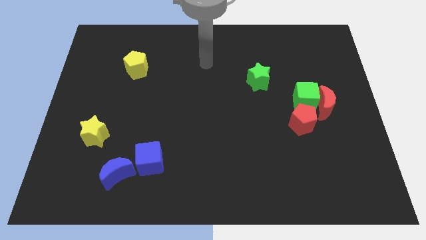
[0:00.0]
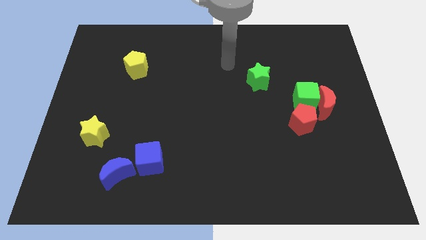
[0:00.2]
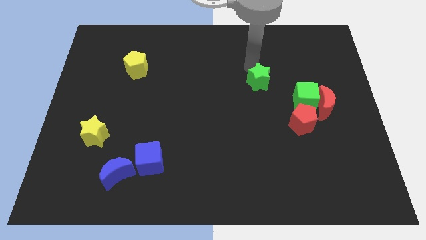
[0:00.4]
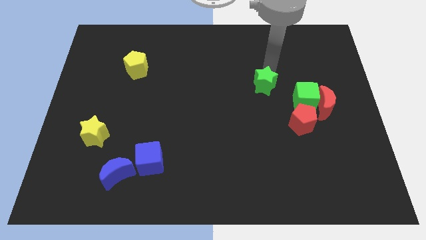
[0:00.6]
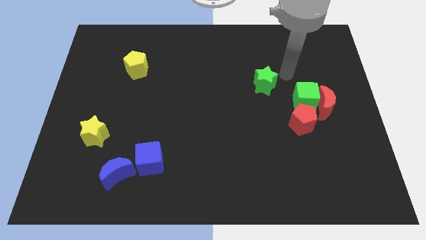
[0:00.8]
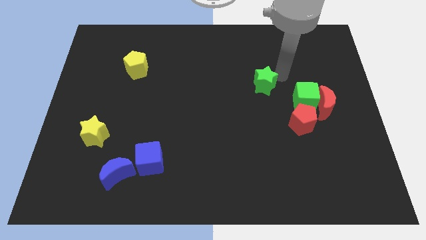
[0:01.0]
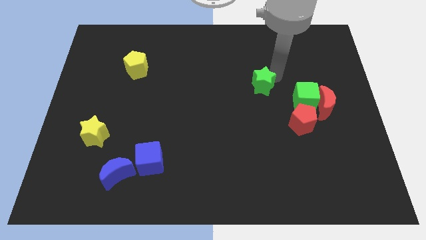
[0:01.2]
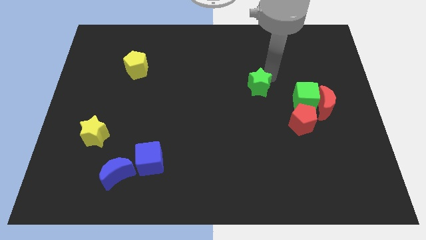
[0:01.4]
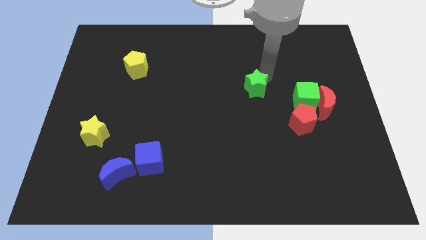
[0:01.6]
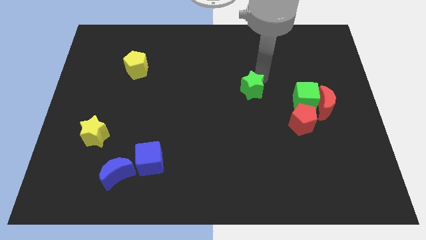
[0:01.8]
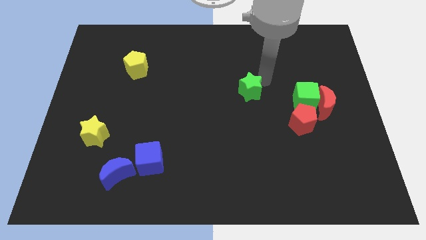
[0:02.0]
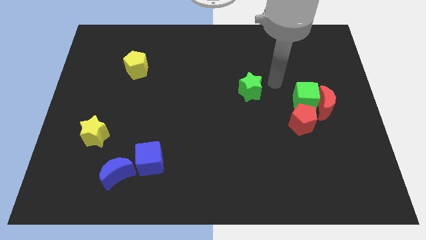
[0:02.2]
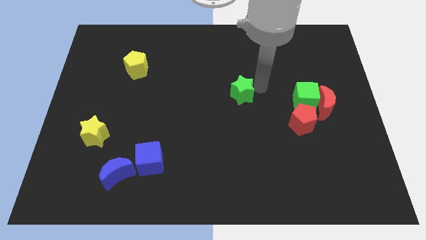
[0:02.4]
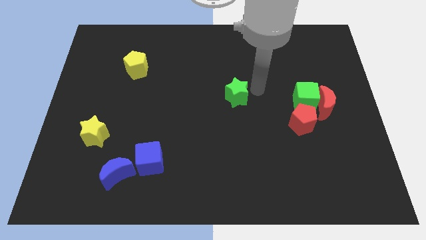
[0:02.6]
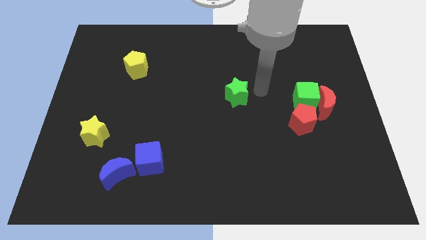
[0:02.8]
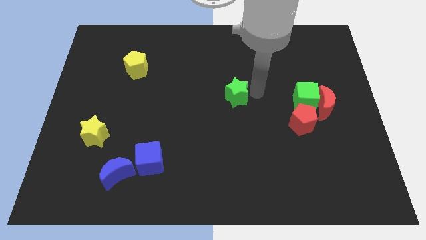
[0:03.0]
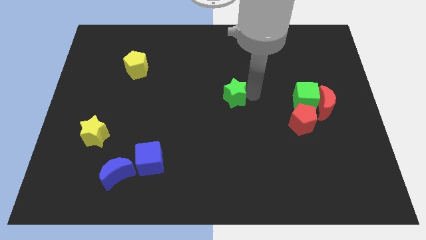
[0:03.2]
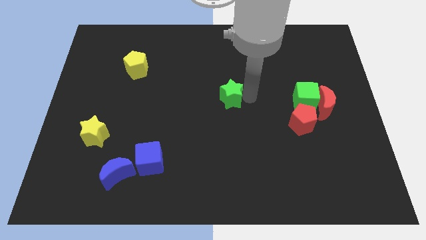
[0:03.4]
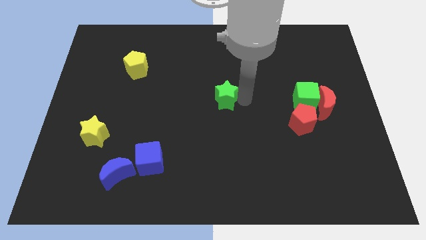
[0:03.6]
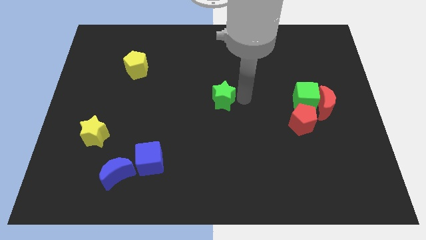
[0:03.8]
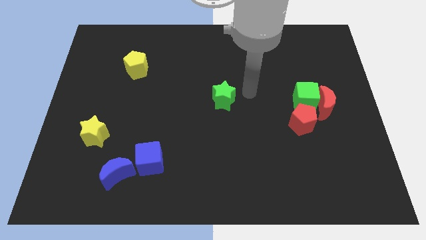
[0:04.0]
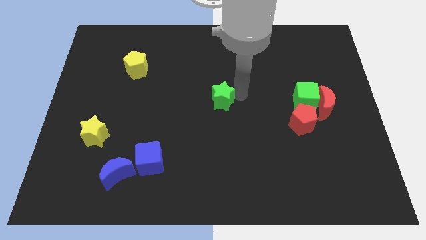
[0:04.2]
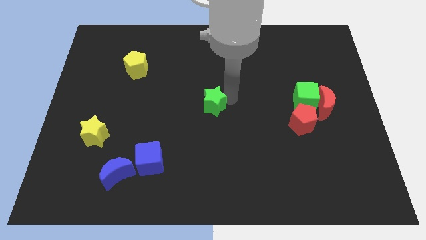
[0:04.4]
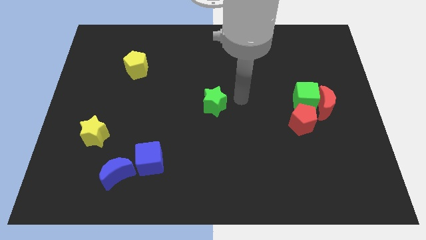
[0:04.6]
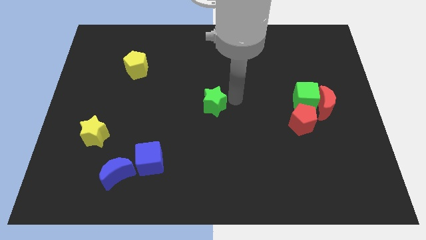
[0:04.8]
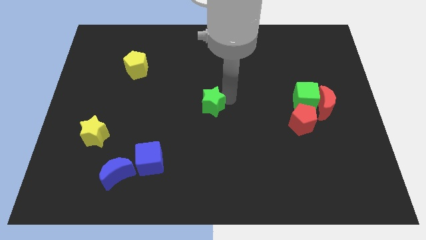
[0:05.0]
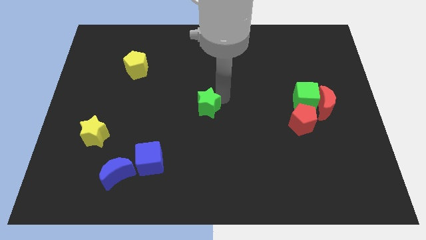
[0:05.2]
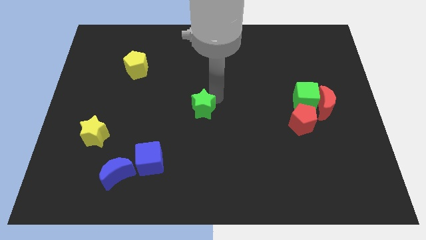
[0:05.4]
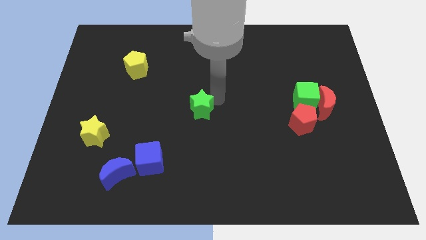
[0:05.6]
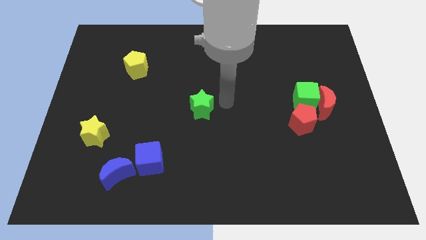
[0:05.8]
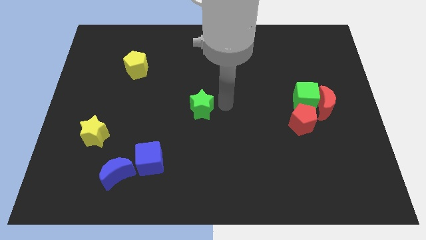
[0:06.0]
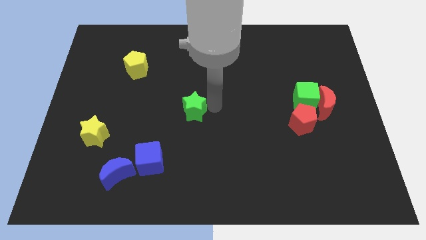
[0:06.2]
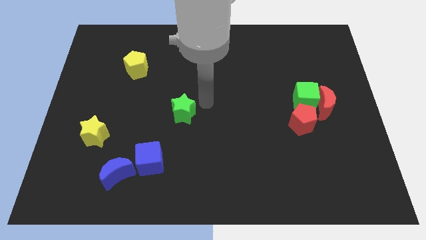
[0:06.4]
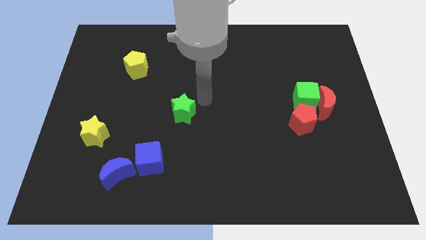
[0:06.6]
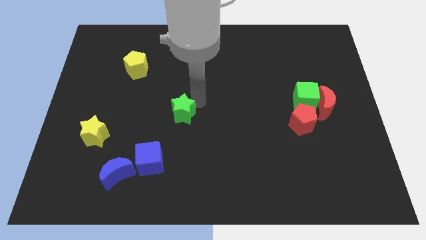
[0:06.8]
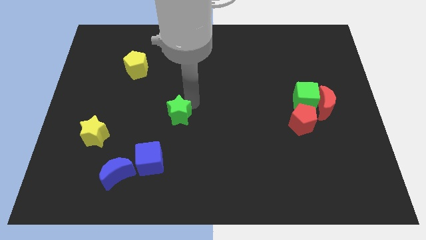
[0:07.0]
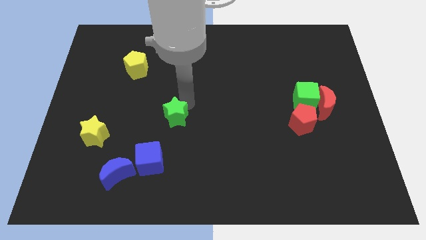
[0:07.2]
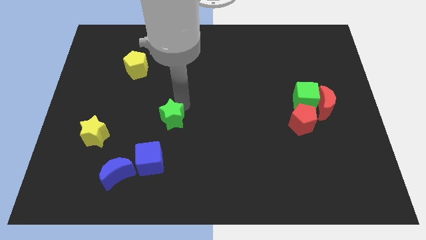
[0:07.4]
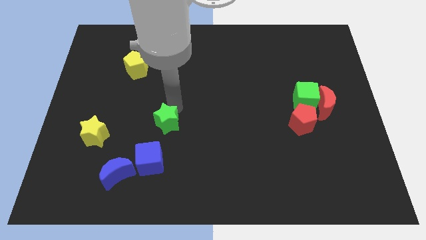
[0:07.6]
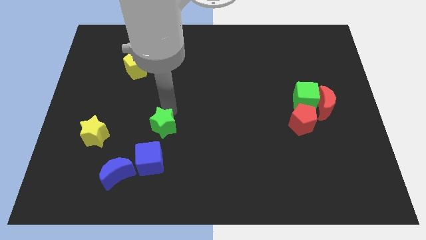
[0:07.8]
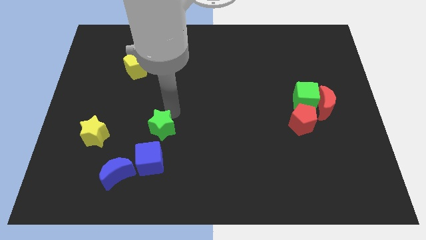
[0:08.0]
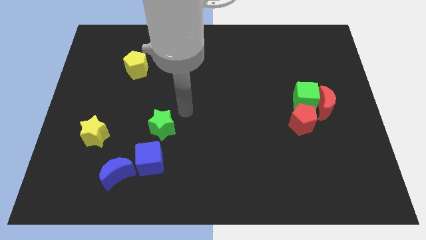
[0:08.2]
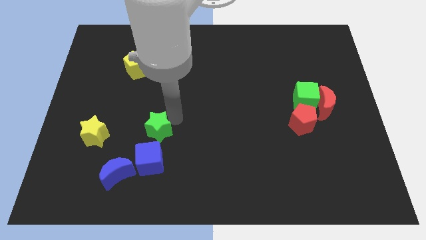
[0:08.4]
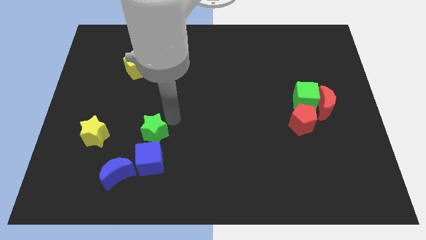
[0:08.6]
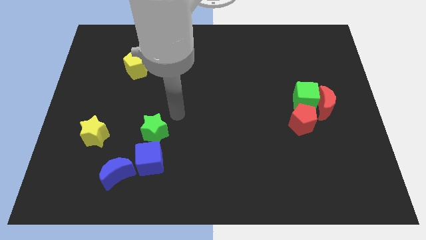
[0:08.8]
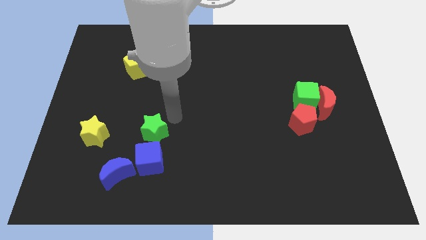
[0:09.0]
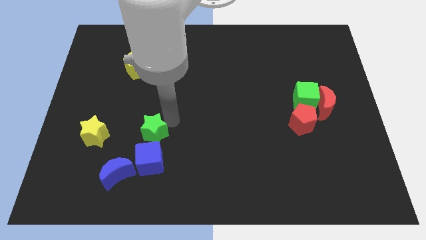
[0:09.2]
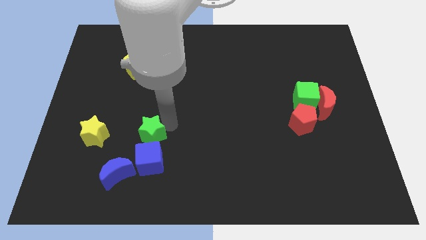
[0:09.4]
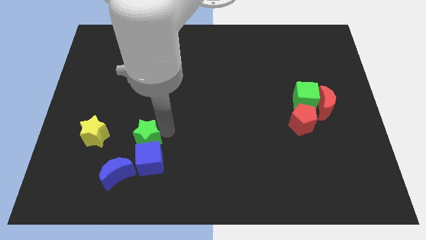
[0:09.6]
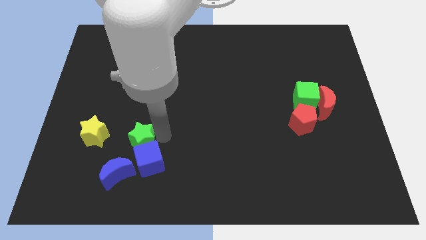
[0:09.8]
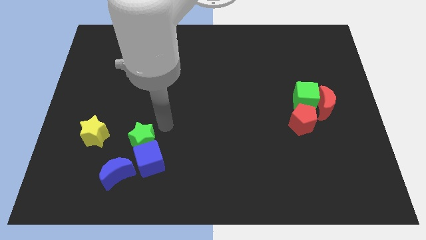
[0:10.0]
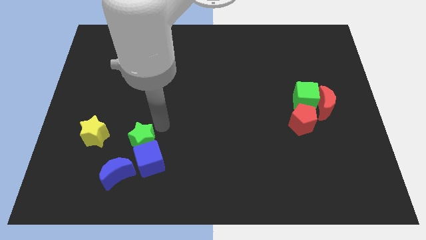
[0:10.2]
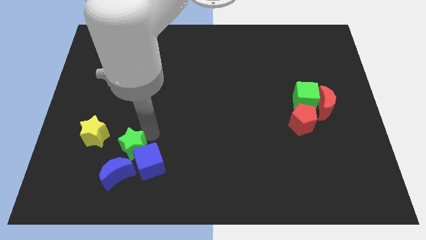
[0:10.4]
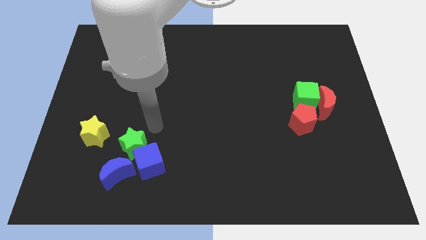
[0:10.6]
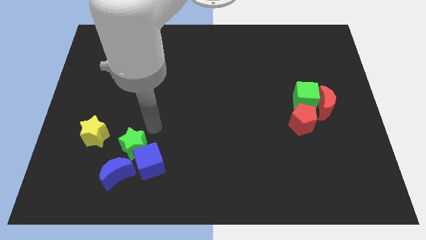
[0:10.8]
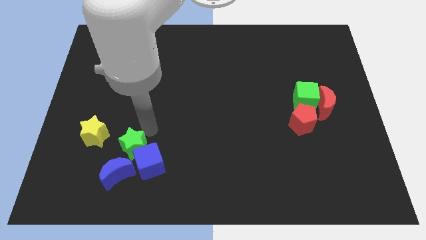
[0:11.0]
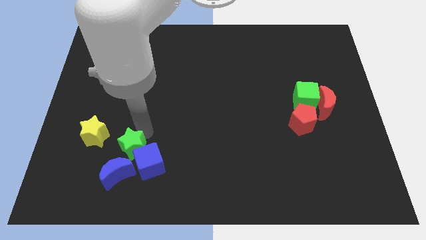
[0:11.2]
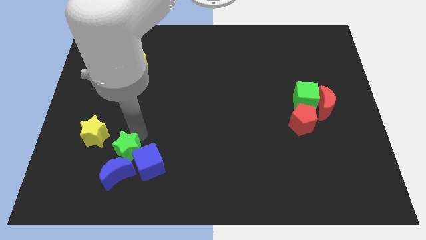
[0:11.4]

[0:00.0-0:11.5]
slide the green star close to the blue moon

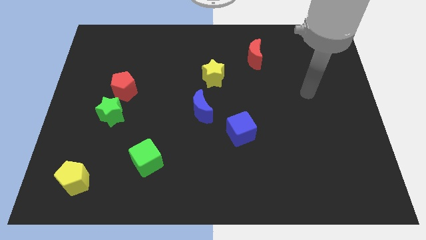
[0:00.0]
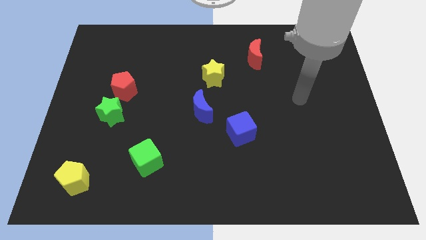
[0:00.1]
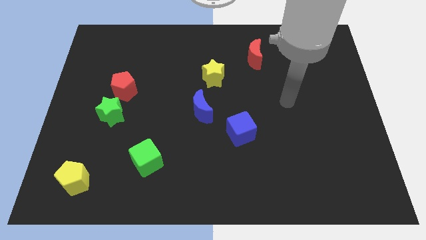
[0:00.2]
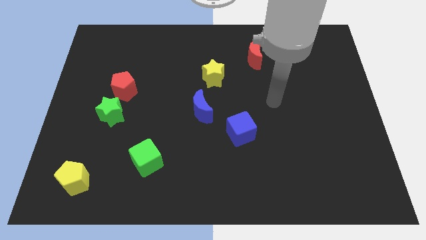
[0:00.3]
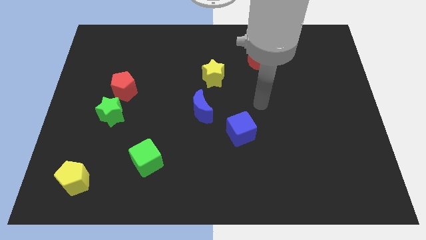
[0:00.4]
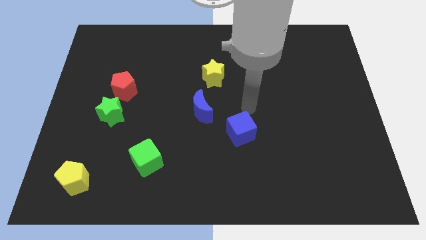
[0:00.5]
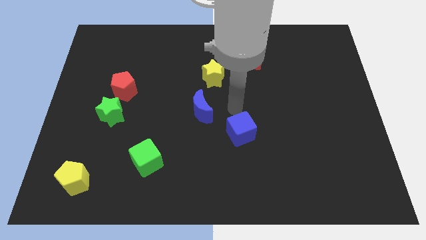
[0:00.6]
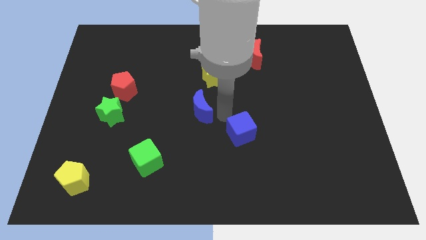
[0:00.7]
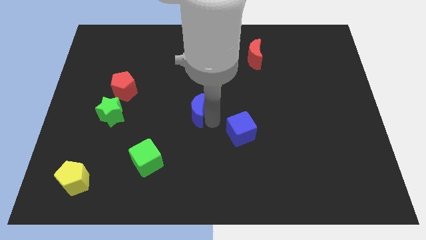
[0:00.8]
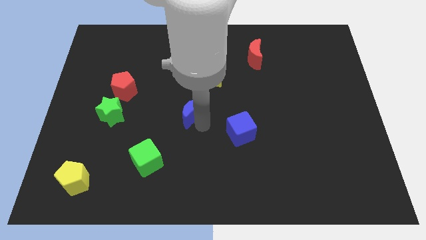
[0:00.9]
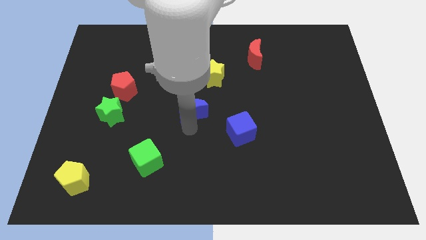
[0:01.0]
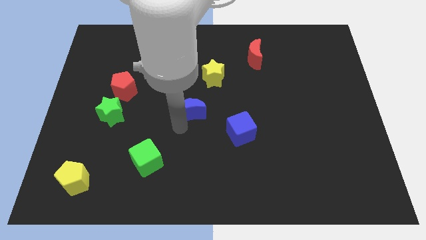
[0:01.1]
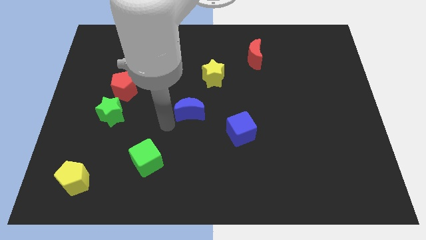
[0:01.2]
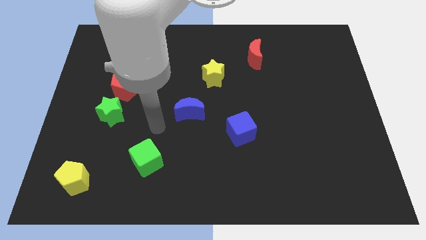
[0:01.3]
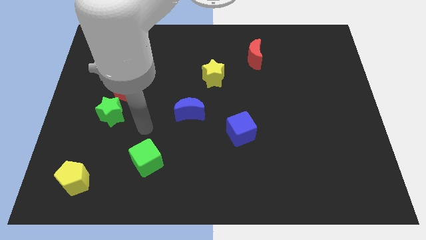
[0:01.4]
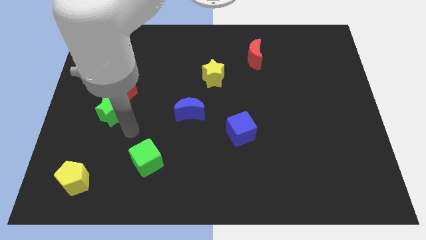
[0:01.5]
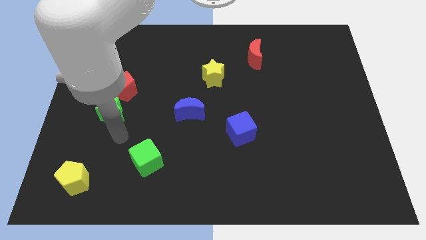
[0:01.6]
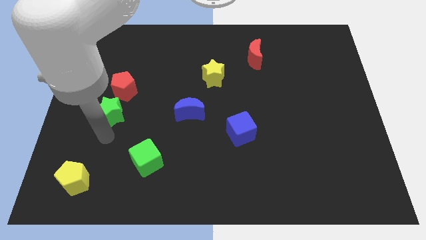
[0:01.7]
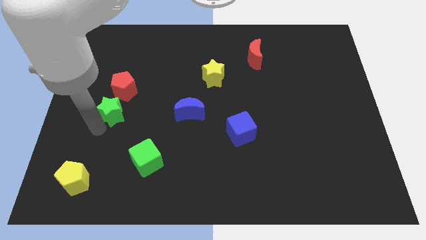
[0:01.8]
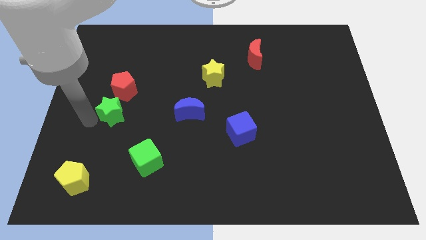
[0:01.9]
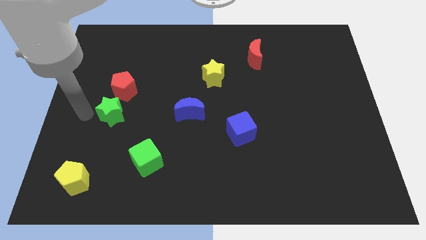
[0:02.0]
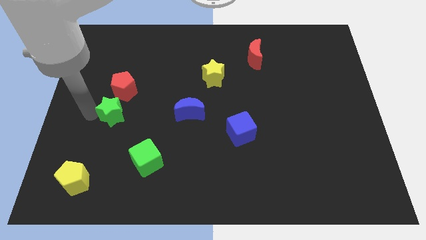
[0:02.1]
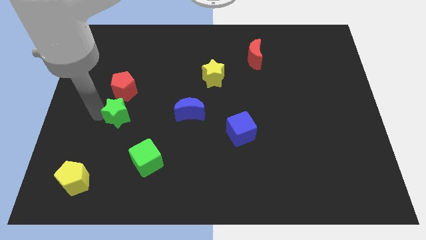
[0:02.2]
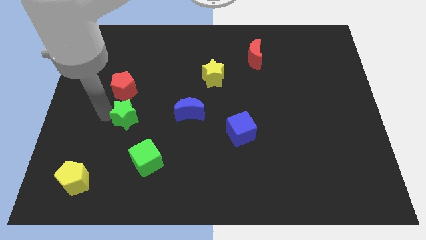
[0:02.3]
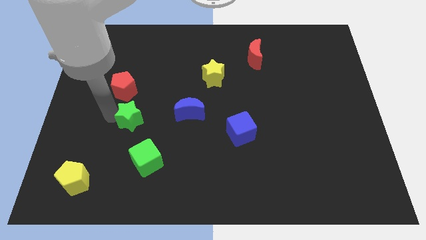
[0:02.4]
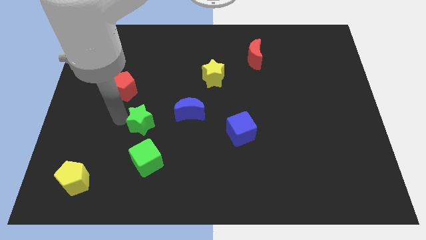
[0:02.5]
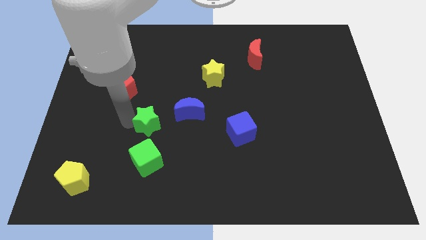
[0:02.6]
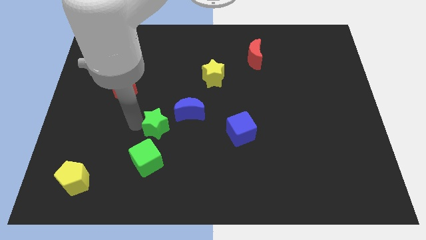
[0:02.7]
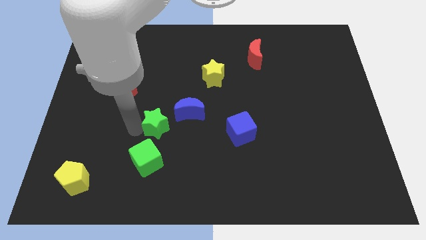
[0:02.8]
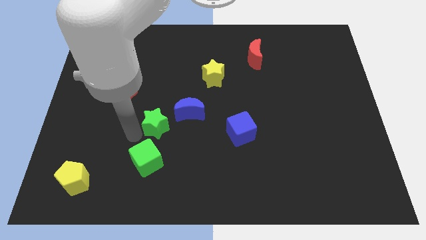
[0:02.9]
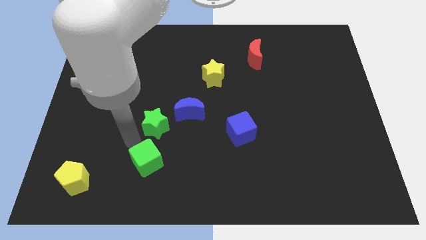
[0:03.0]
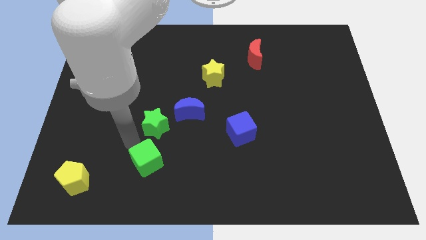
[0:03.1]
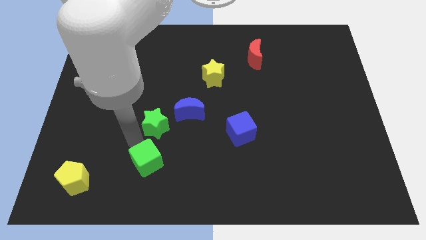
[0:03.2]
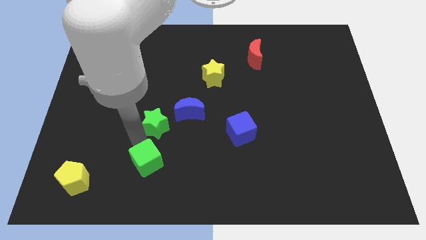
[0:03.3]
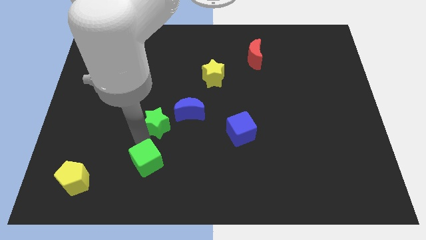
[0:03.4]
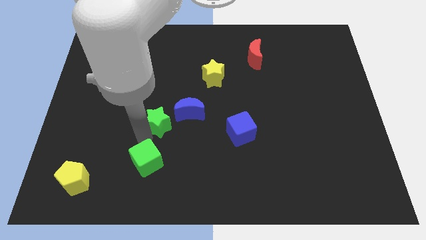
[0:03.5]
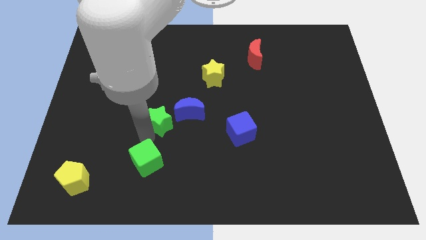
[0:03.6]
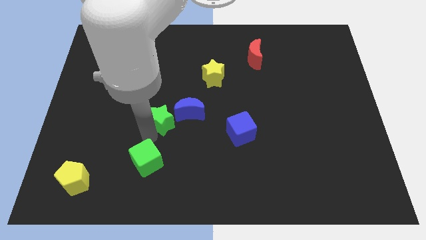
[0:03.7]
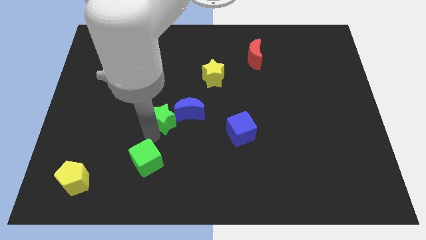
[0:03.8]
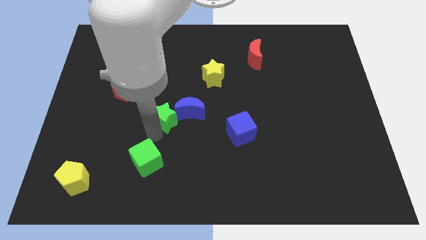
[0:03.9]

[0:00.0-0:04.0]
move the green star next to the blue moon
